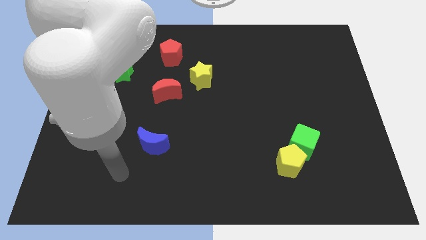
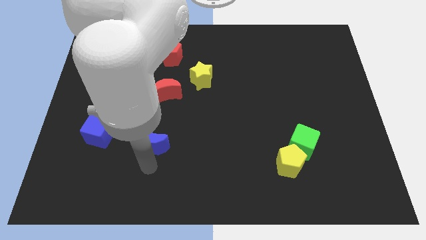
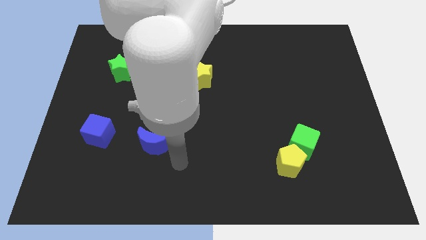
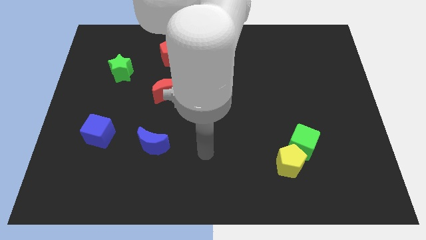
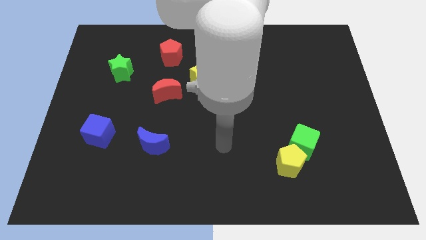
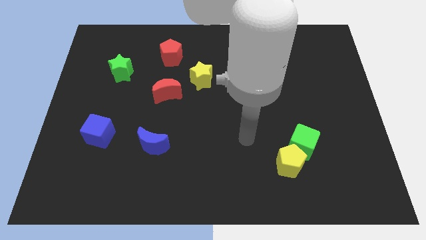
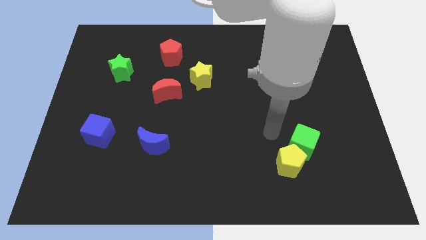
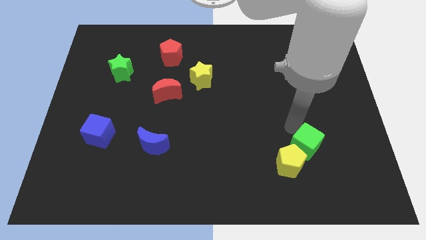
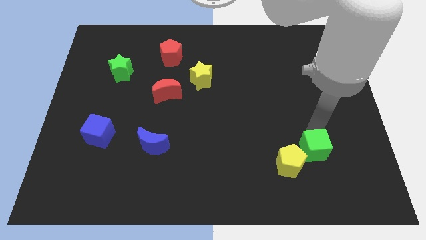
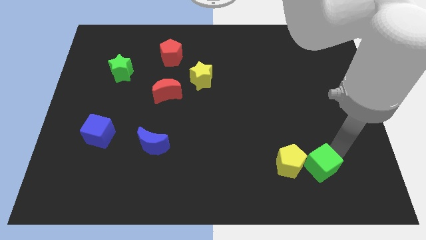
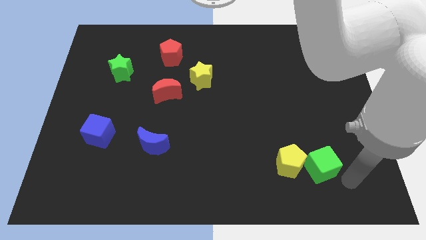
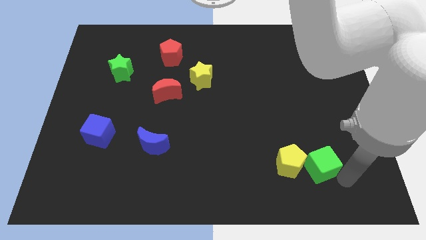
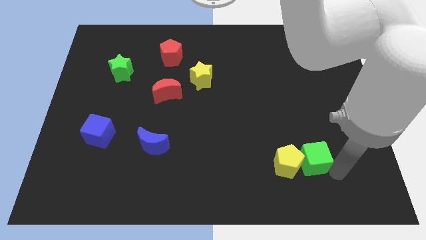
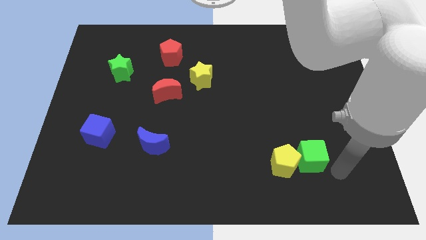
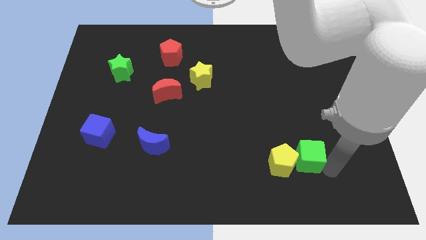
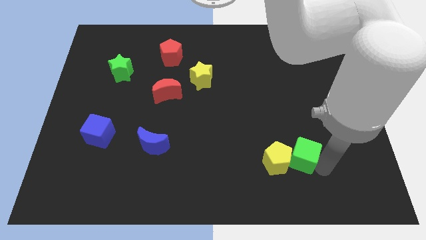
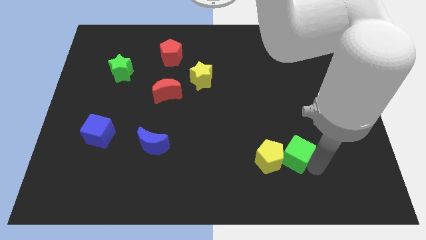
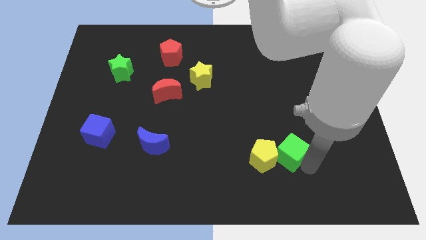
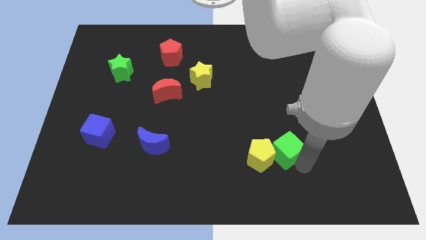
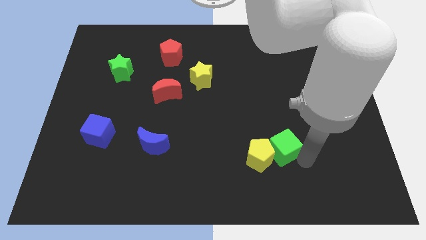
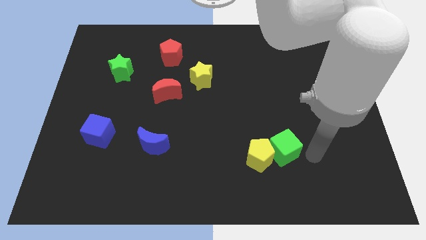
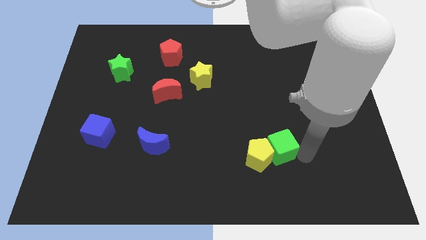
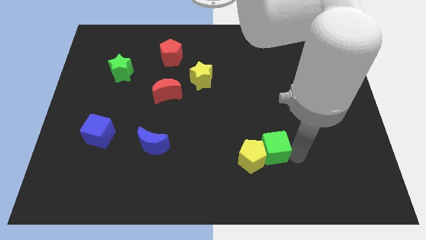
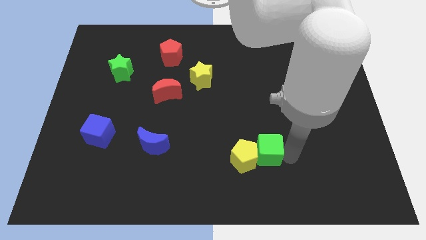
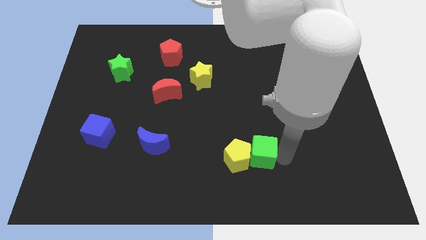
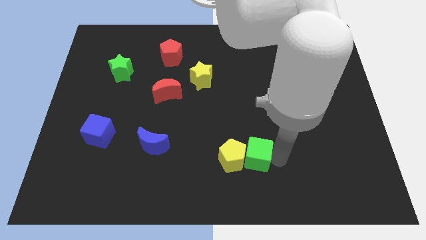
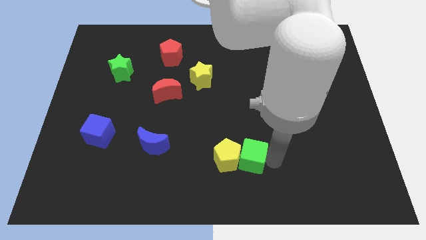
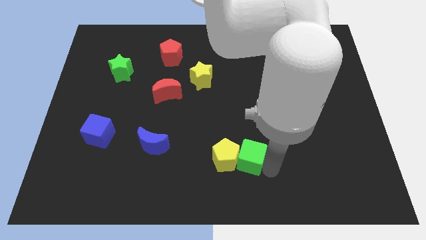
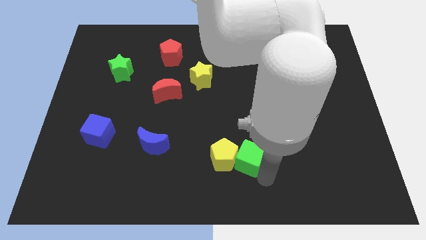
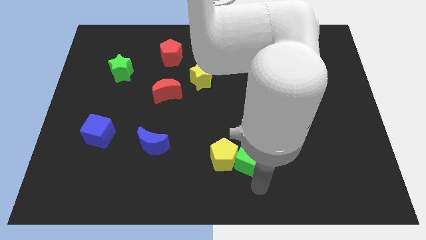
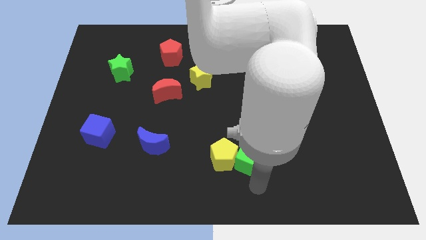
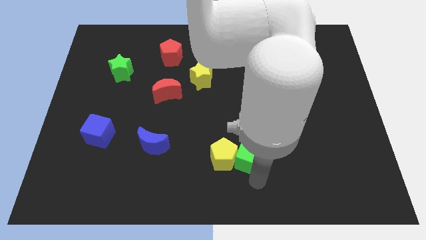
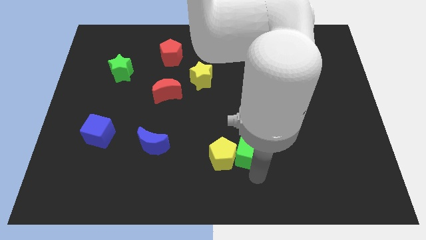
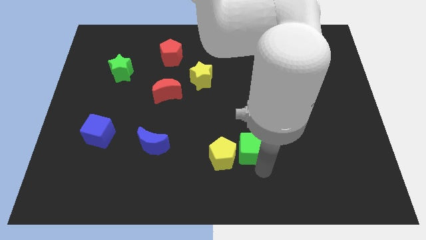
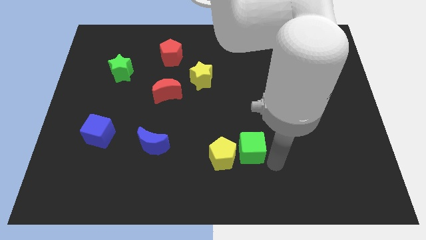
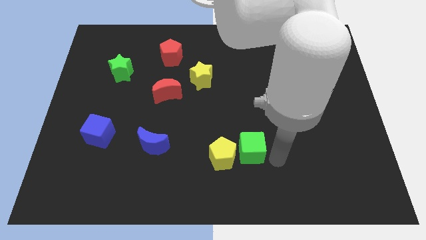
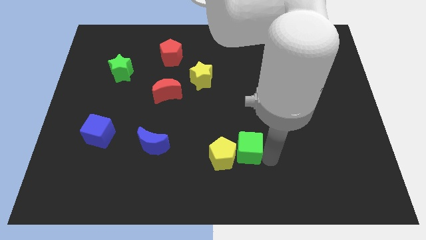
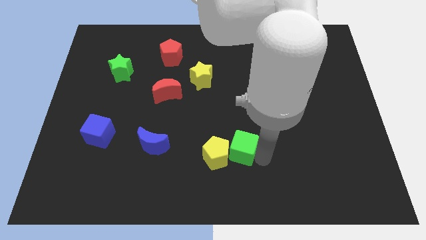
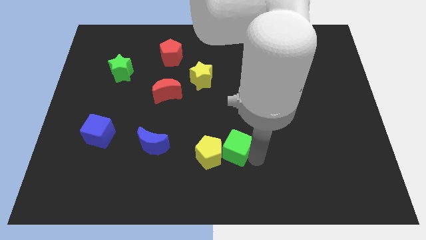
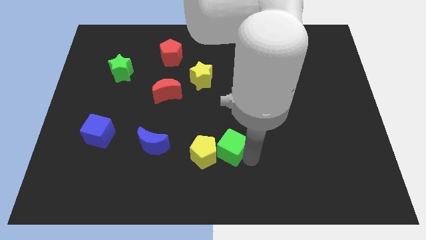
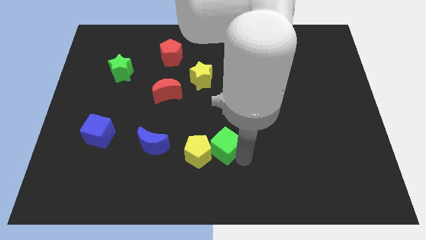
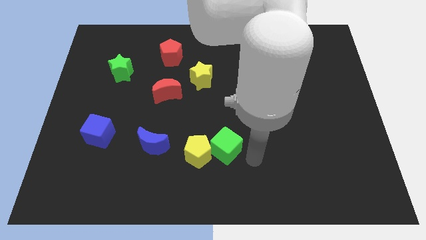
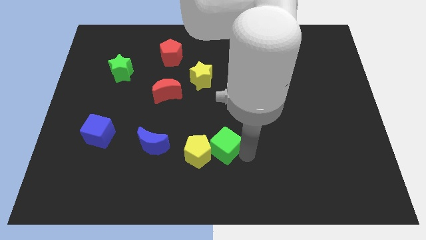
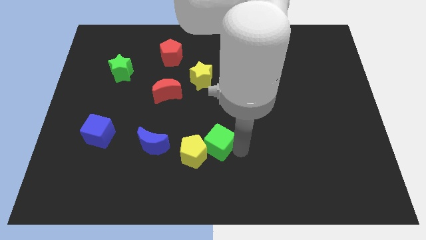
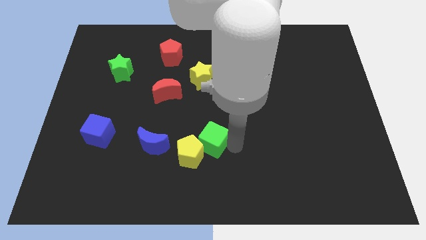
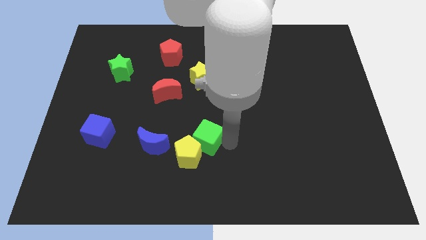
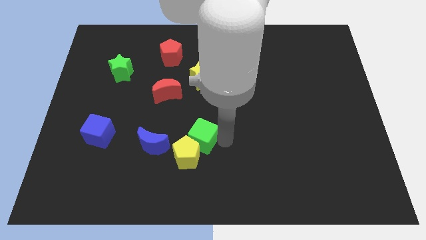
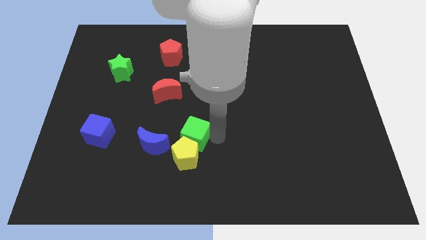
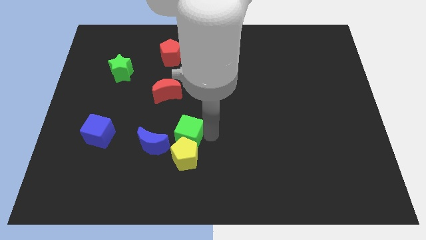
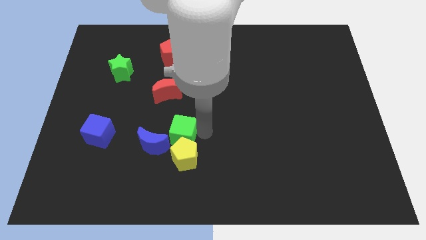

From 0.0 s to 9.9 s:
slide the green cube to the bottom of the red moon
